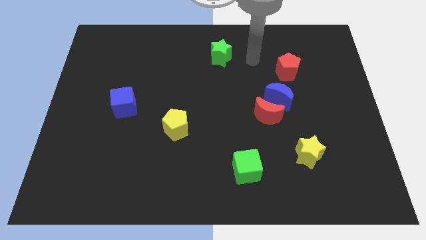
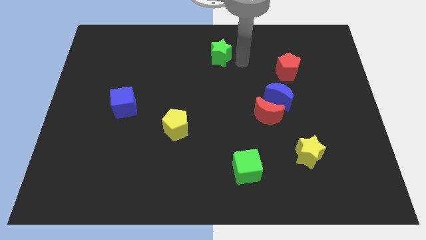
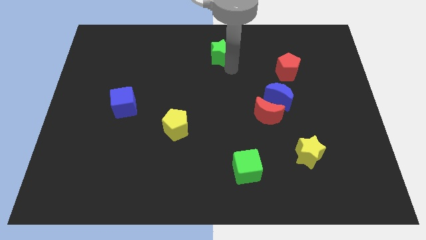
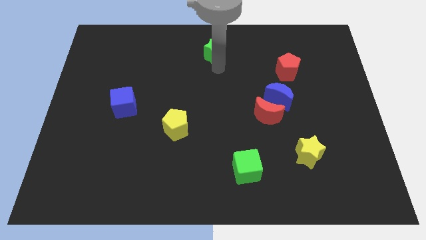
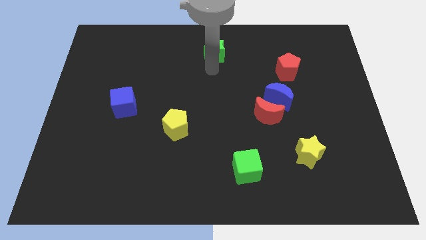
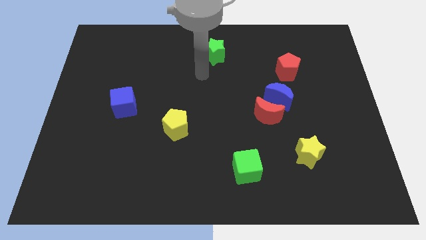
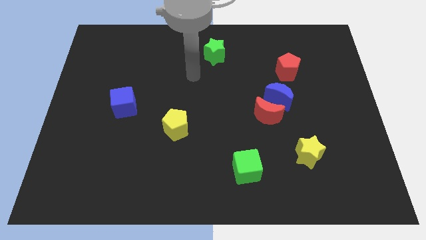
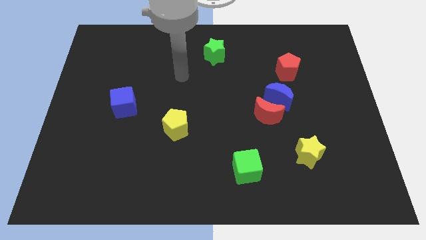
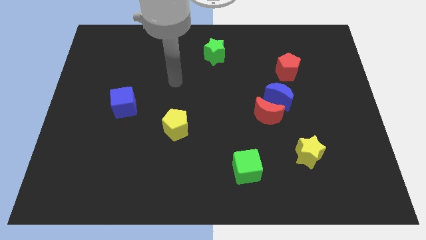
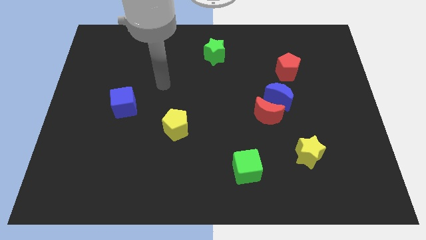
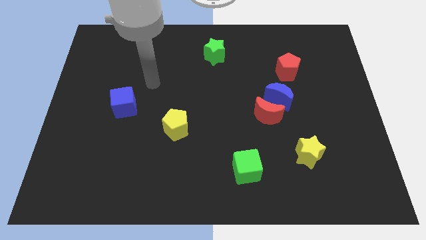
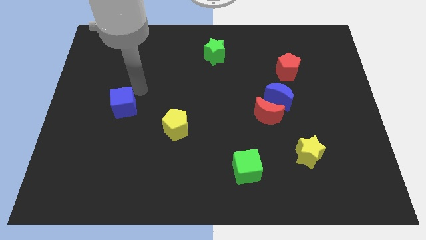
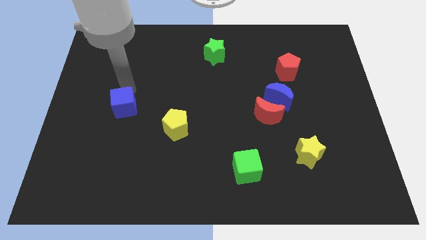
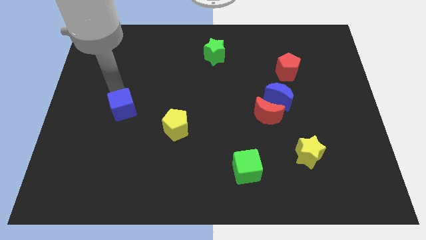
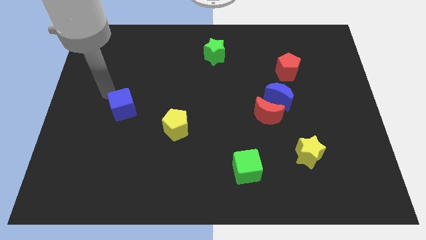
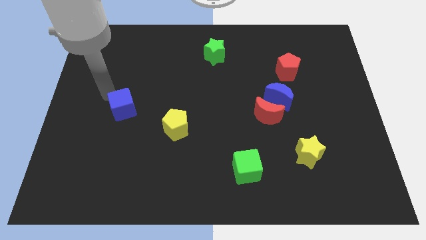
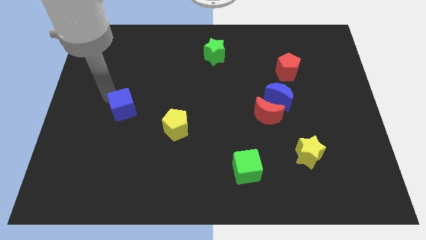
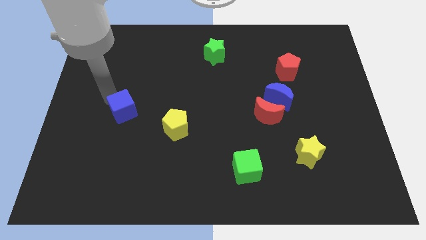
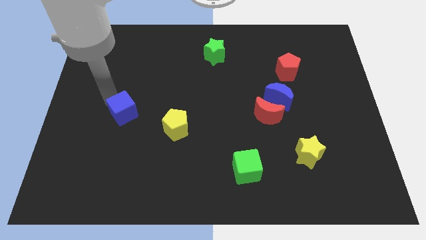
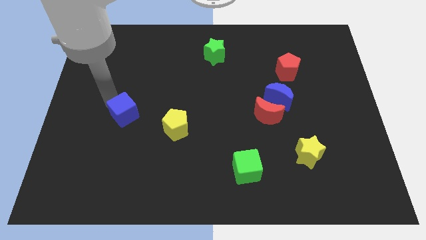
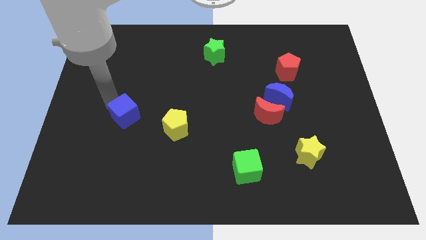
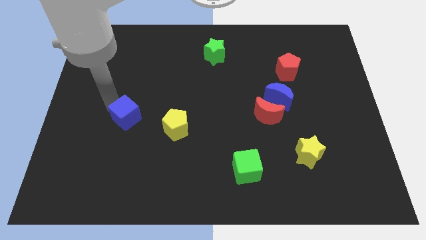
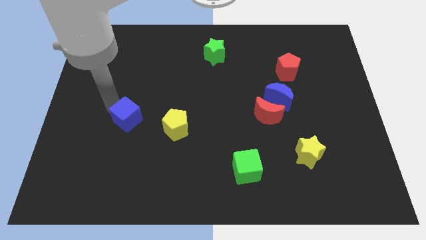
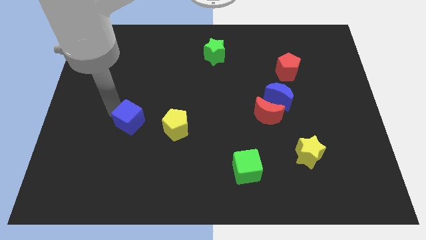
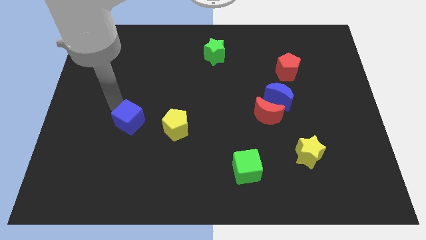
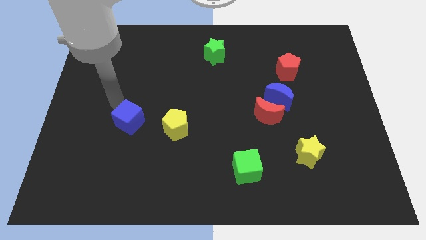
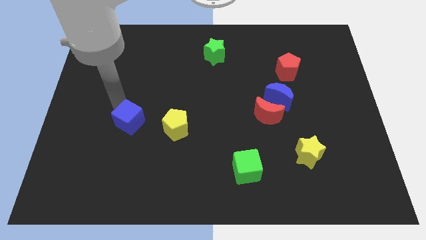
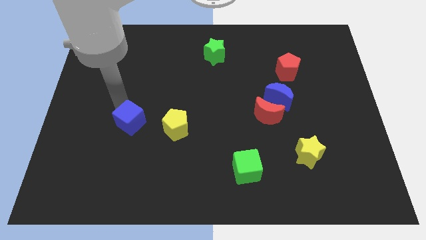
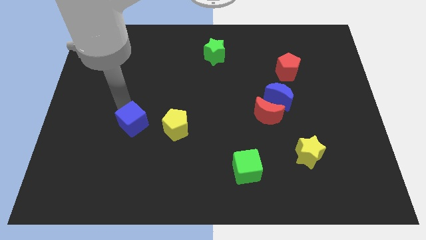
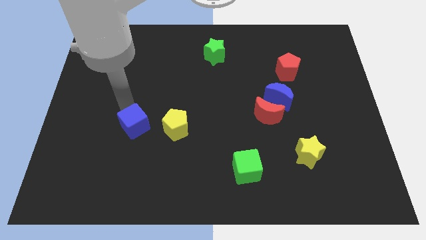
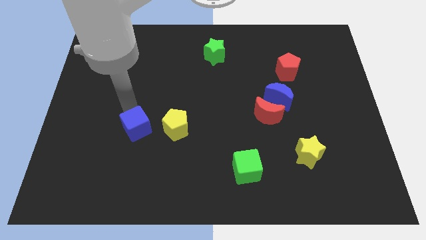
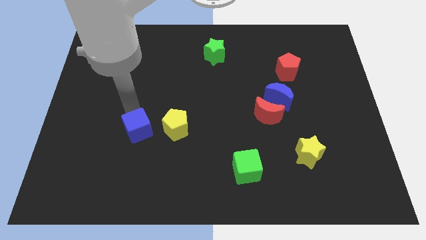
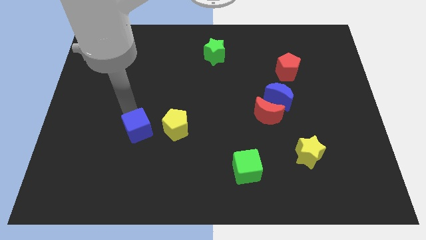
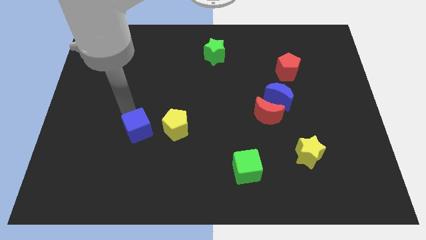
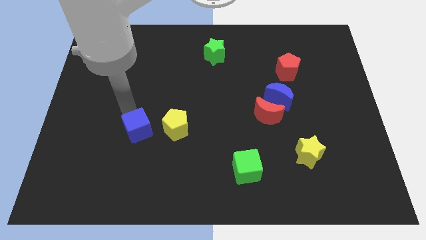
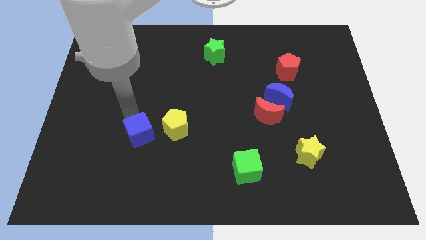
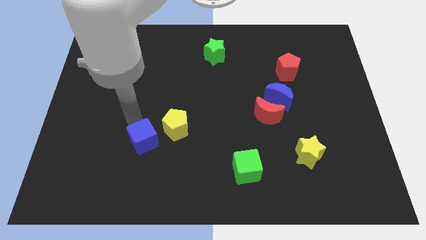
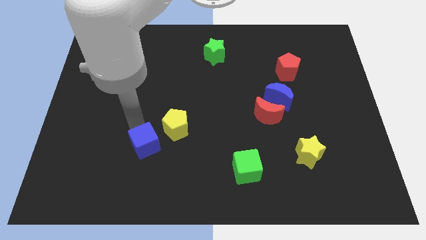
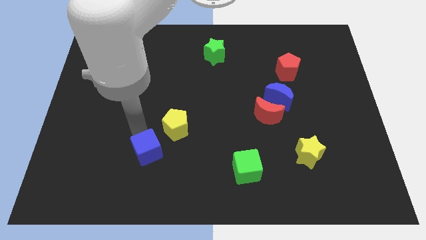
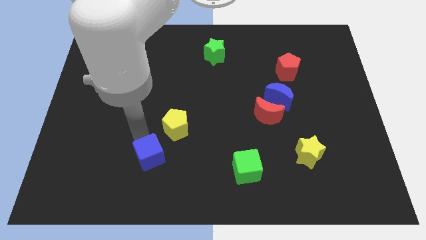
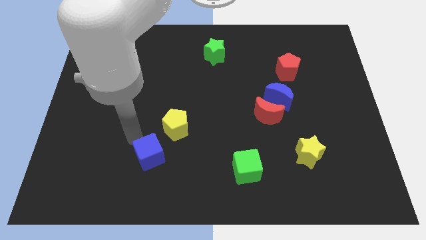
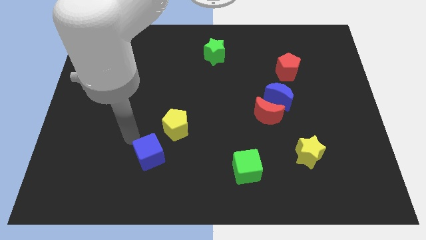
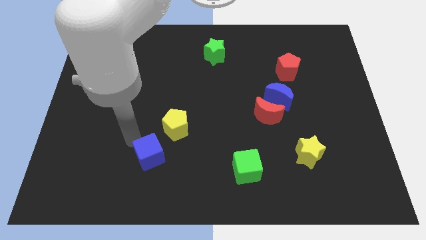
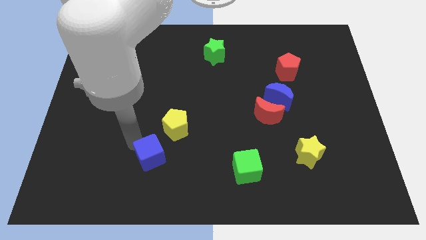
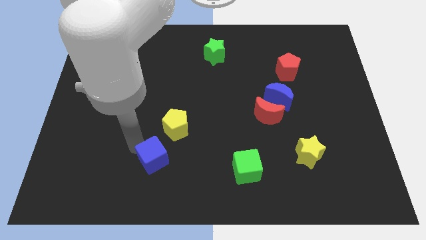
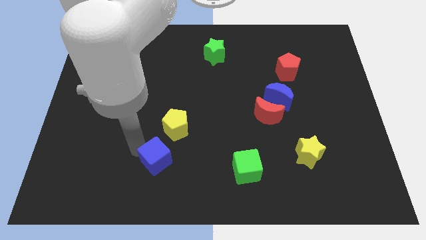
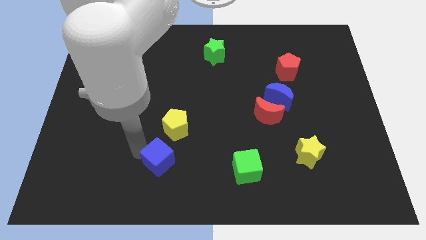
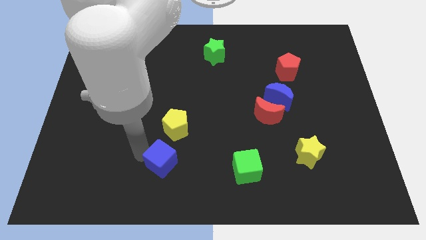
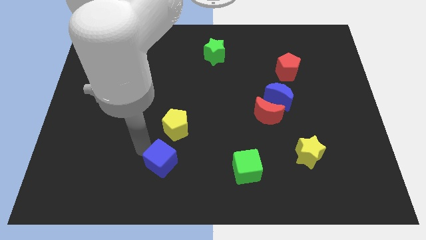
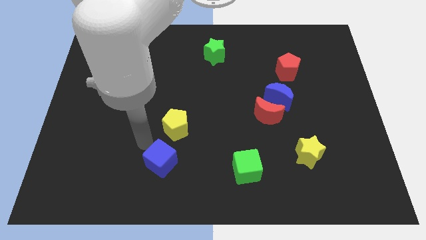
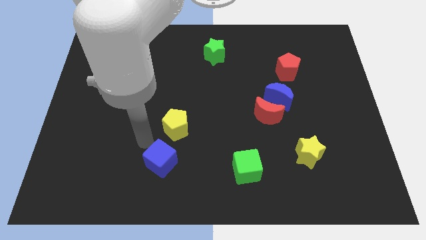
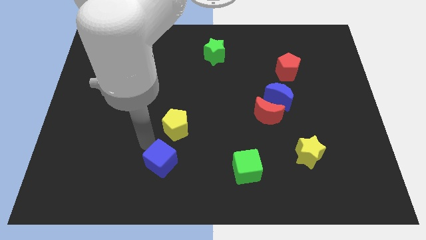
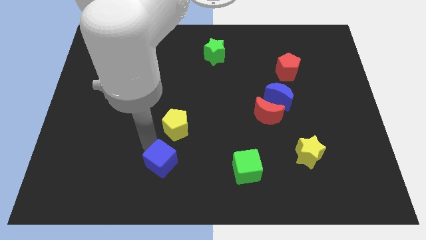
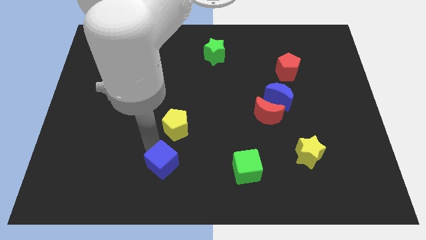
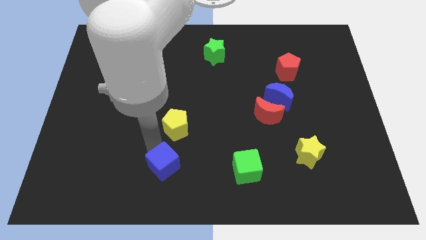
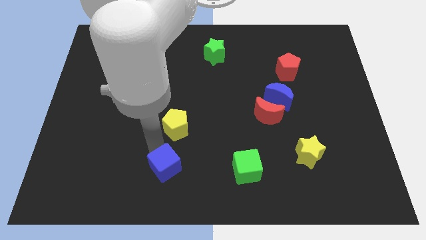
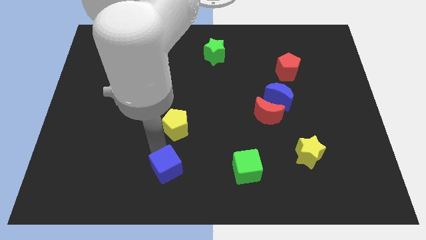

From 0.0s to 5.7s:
push the blue cube to the bottom side

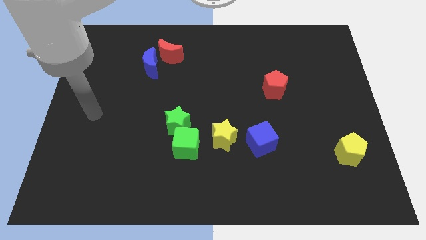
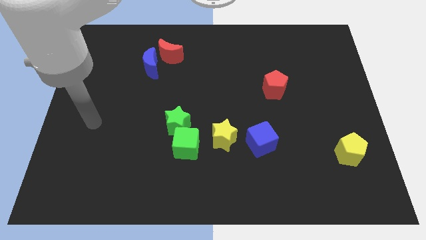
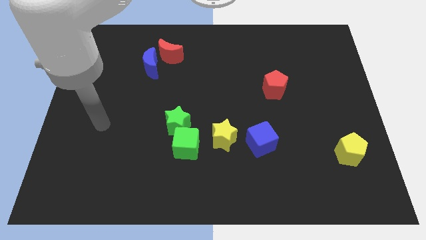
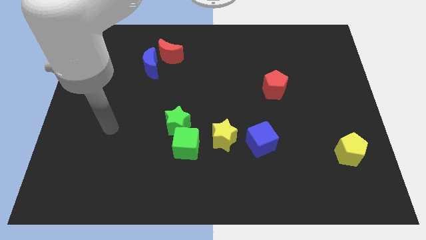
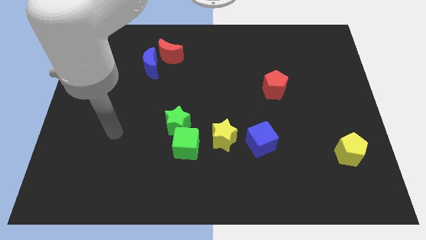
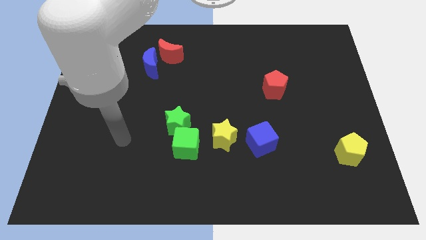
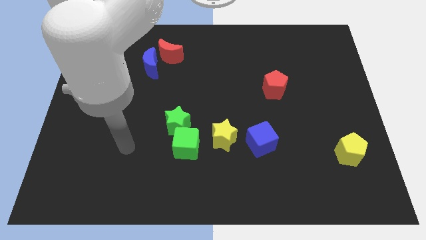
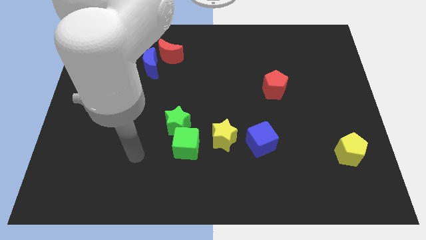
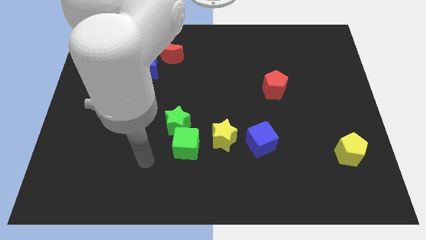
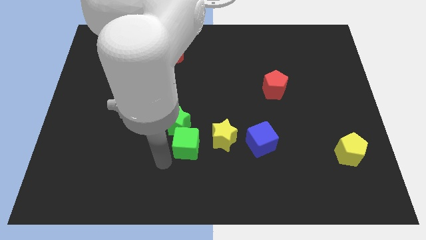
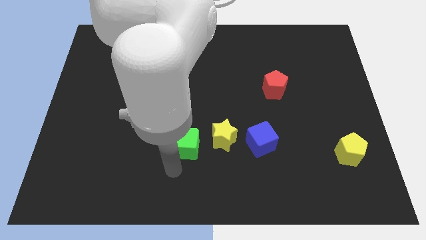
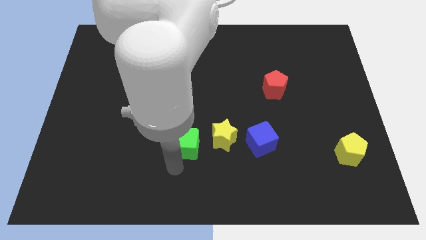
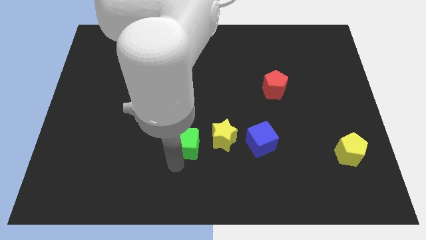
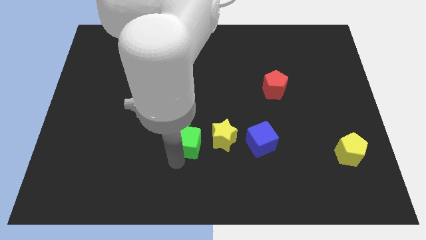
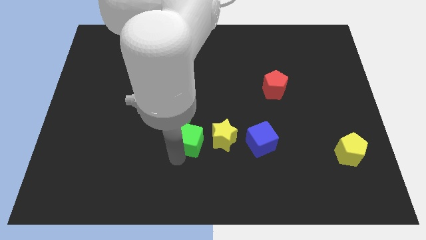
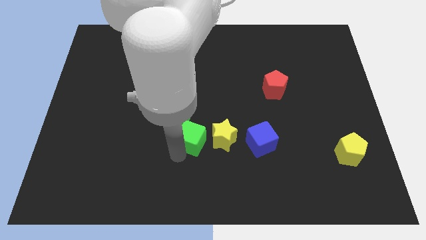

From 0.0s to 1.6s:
put the green cube to the middle of the board
